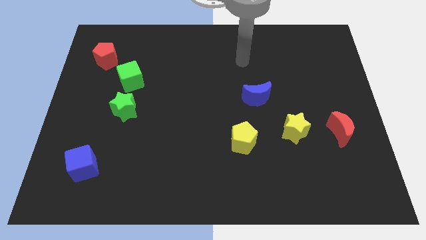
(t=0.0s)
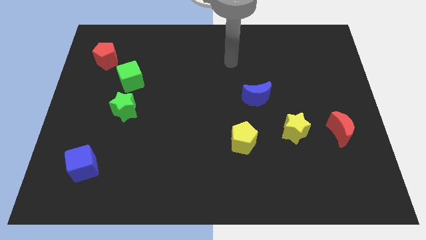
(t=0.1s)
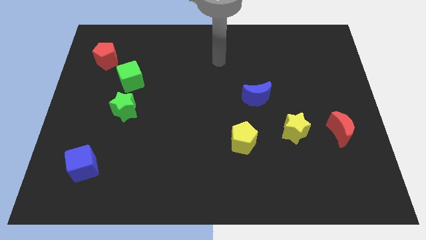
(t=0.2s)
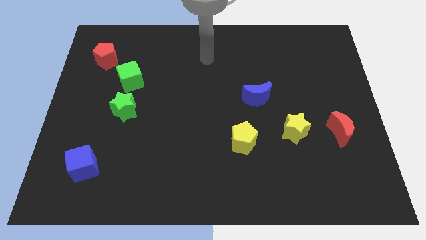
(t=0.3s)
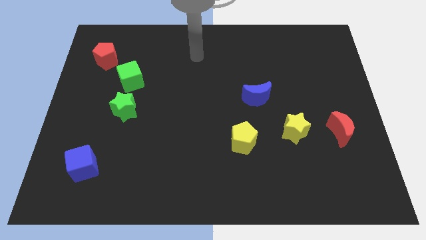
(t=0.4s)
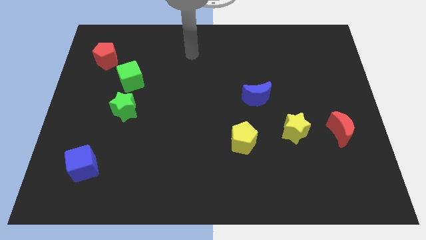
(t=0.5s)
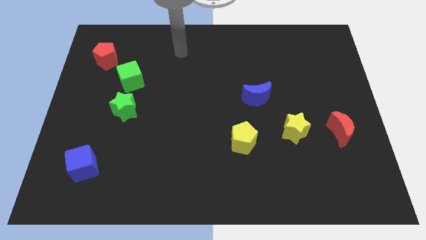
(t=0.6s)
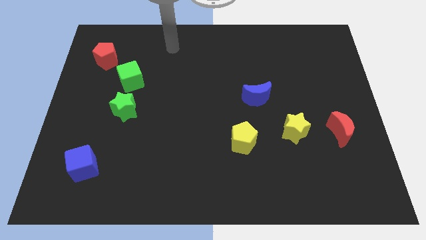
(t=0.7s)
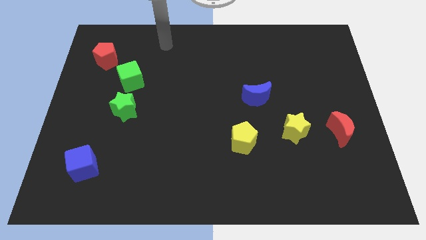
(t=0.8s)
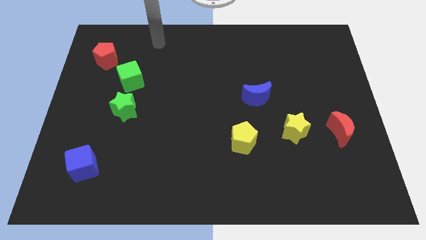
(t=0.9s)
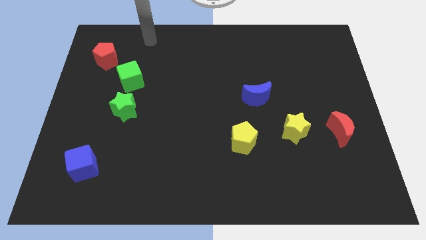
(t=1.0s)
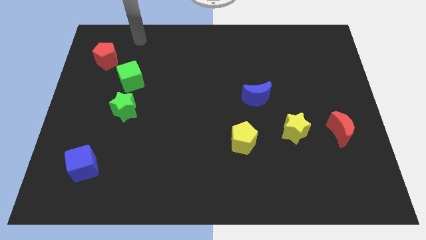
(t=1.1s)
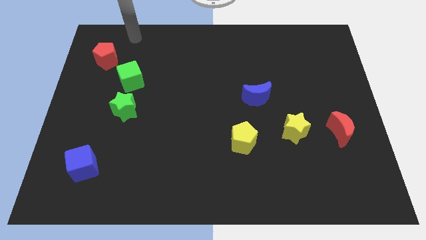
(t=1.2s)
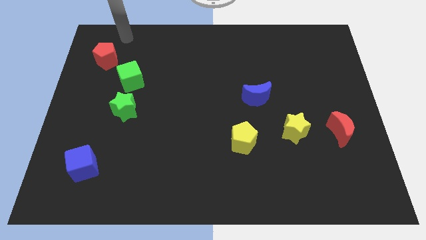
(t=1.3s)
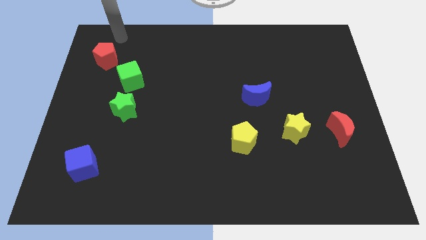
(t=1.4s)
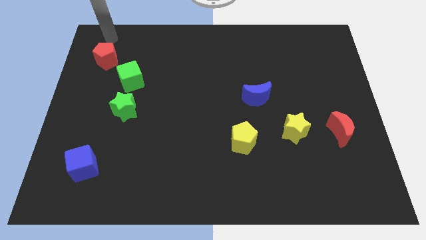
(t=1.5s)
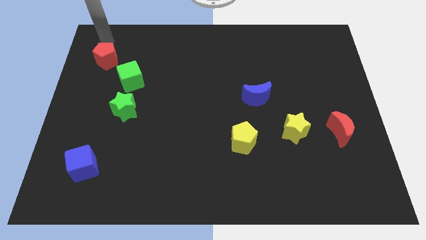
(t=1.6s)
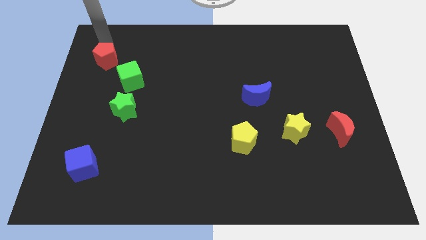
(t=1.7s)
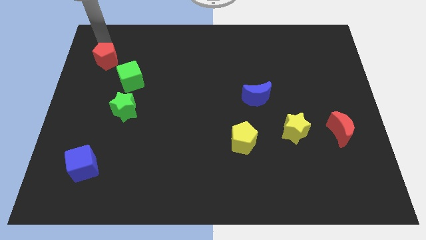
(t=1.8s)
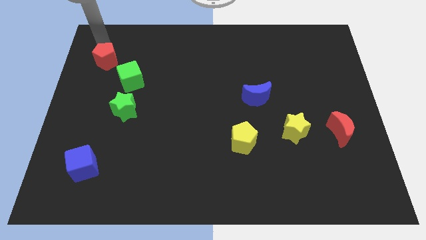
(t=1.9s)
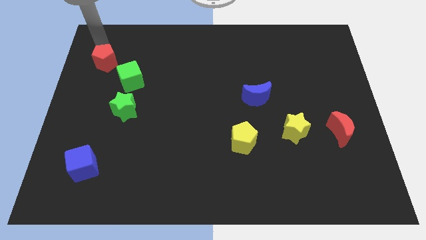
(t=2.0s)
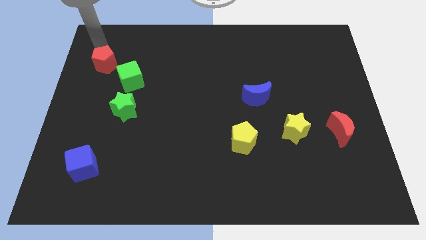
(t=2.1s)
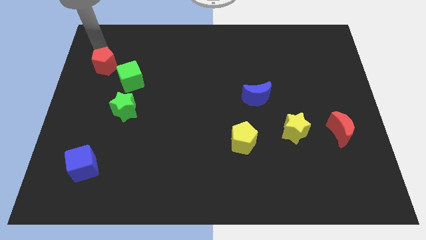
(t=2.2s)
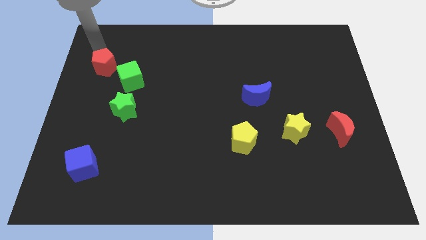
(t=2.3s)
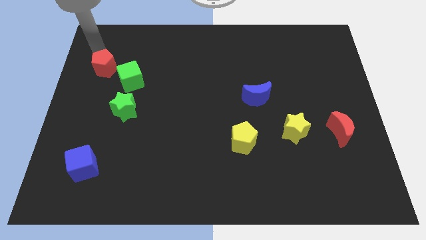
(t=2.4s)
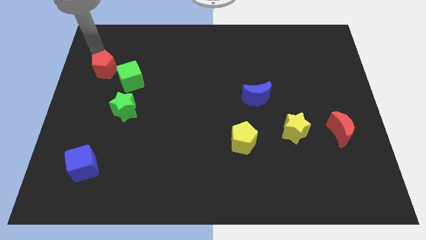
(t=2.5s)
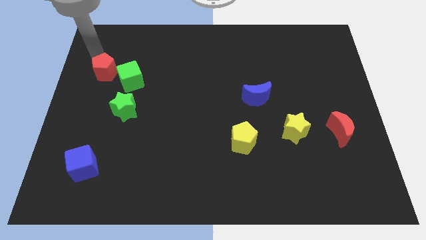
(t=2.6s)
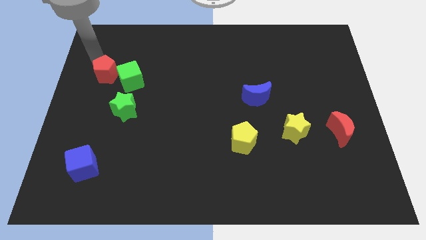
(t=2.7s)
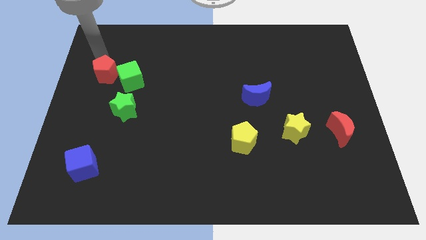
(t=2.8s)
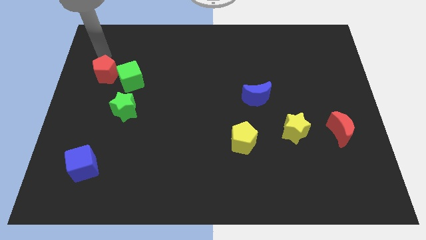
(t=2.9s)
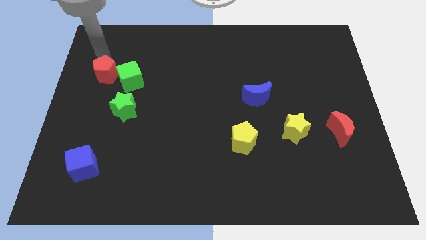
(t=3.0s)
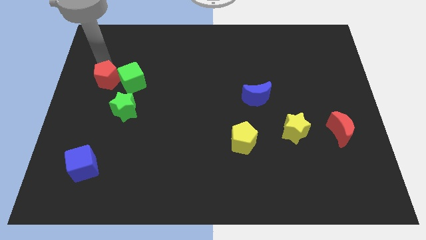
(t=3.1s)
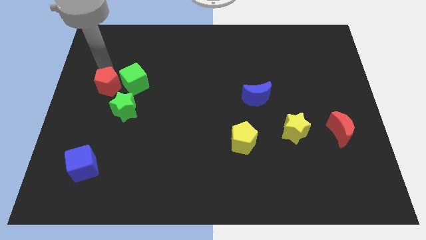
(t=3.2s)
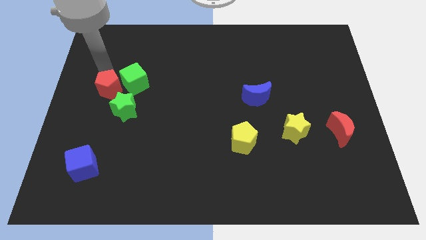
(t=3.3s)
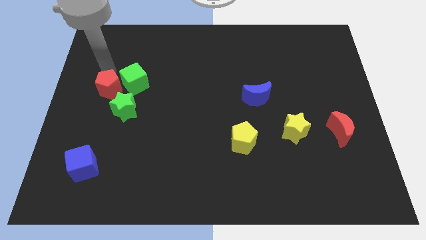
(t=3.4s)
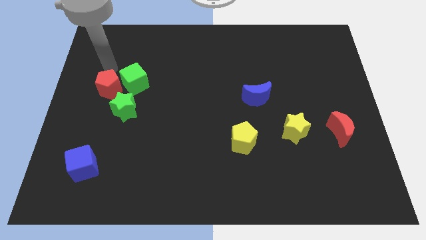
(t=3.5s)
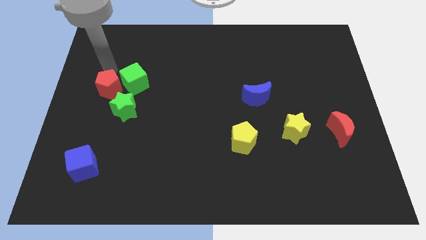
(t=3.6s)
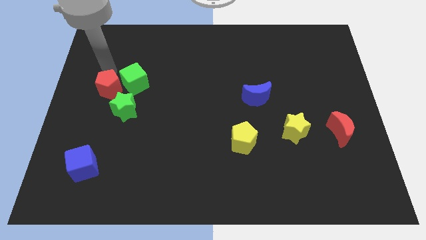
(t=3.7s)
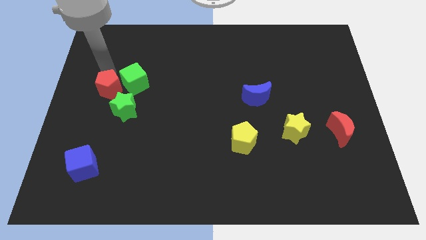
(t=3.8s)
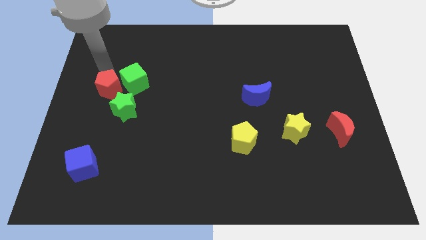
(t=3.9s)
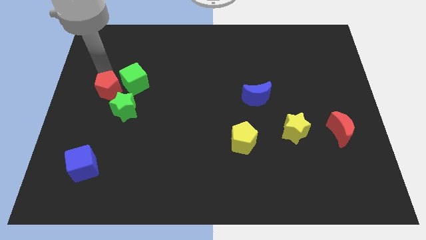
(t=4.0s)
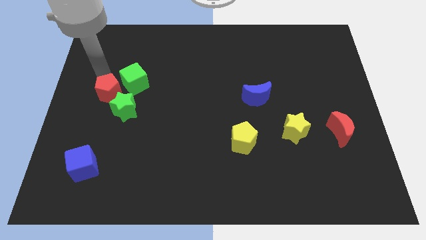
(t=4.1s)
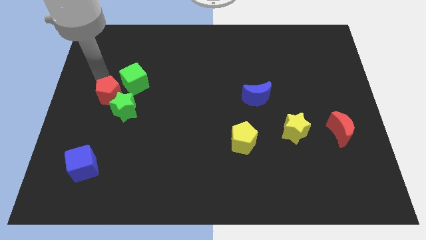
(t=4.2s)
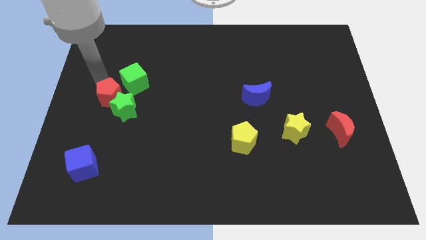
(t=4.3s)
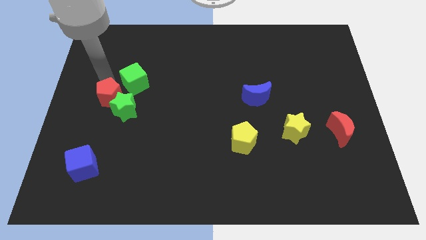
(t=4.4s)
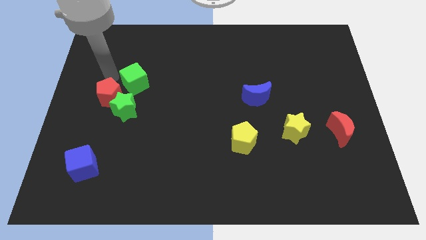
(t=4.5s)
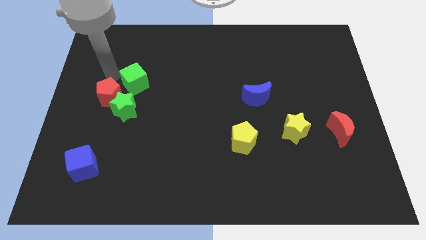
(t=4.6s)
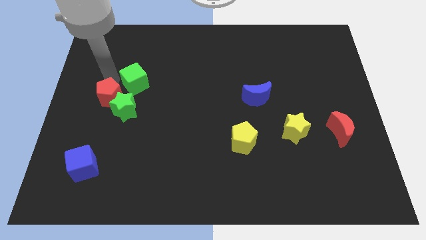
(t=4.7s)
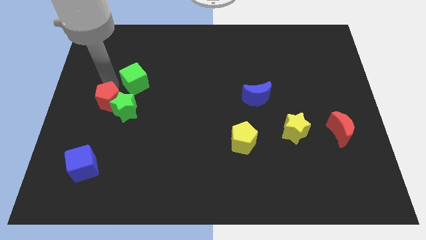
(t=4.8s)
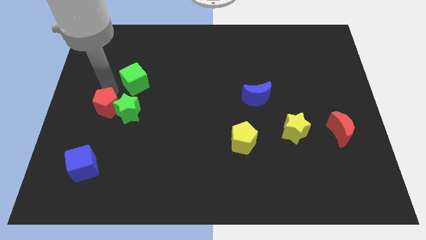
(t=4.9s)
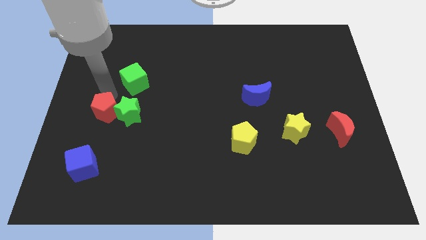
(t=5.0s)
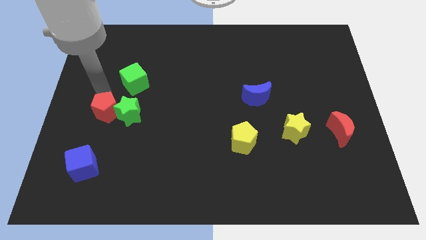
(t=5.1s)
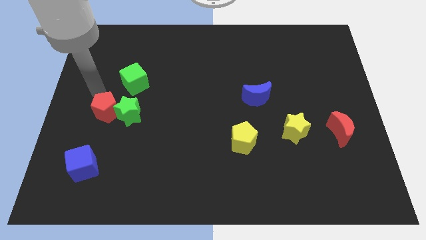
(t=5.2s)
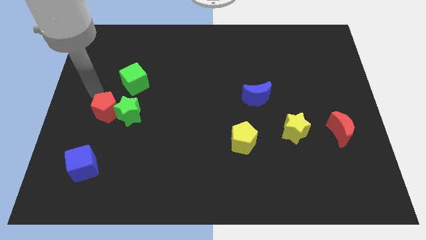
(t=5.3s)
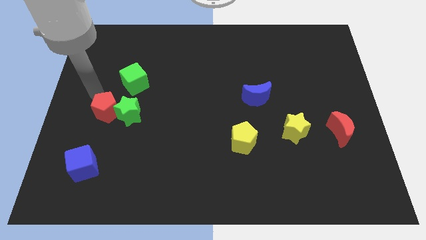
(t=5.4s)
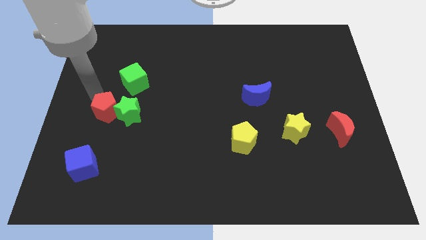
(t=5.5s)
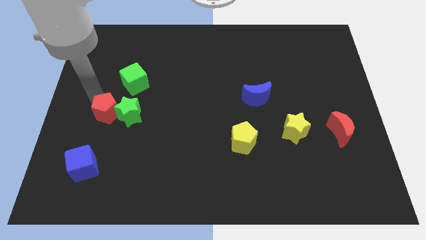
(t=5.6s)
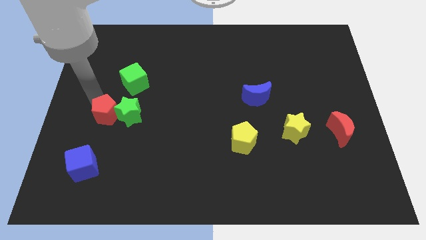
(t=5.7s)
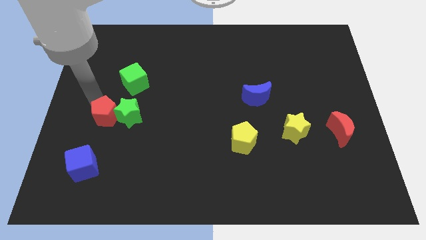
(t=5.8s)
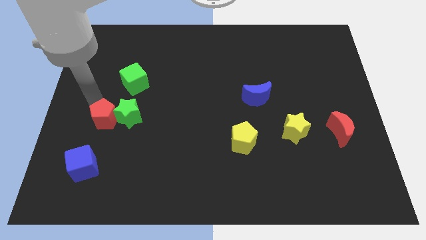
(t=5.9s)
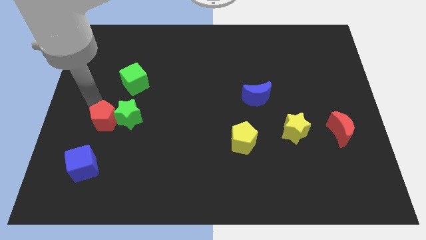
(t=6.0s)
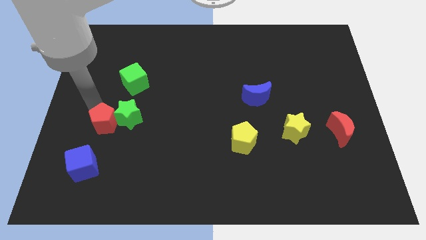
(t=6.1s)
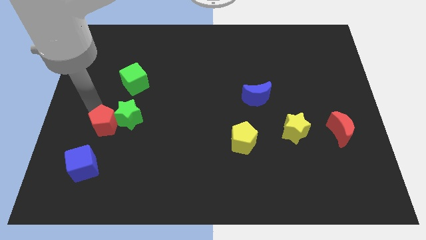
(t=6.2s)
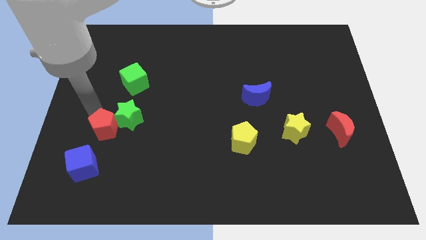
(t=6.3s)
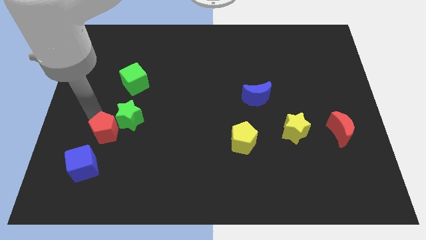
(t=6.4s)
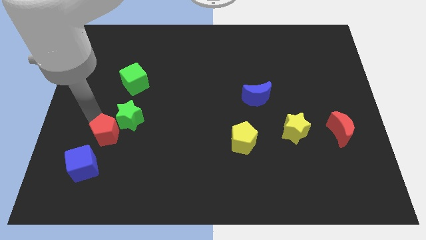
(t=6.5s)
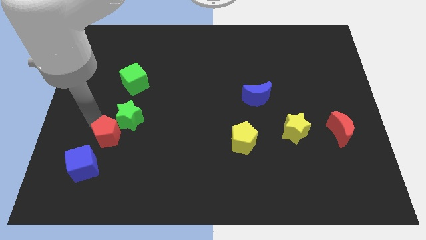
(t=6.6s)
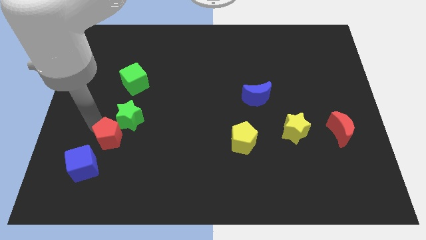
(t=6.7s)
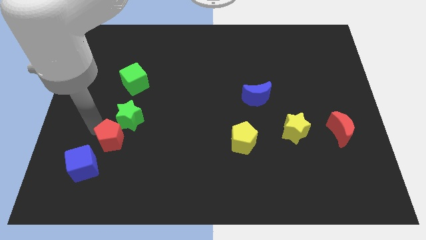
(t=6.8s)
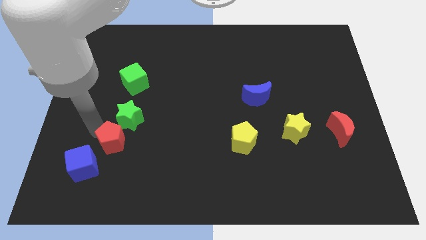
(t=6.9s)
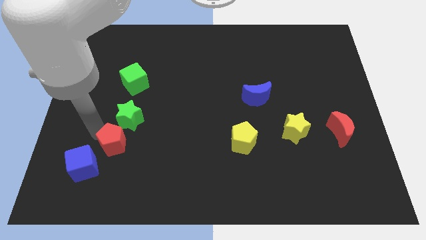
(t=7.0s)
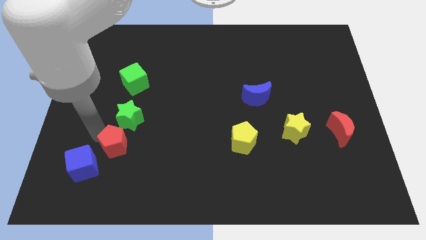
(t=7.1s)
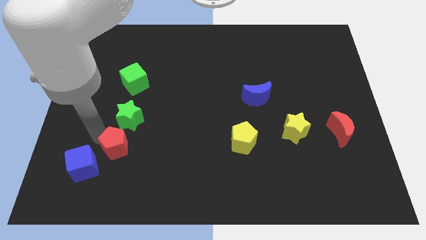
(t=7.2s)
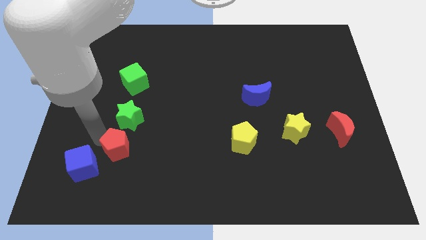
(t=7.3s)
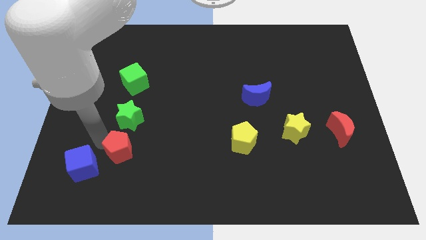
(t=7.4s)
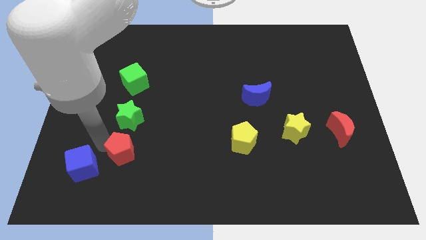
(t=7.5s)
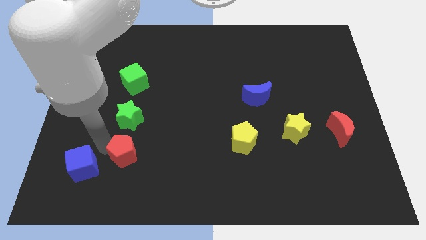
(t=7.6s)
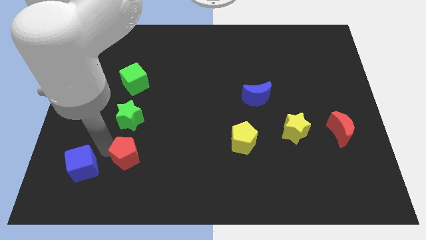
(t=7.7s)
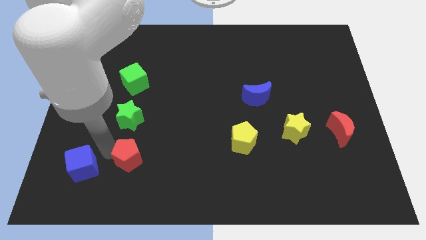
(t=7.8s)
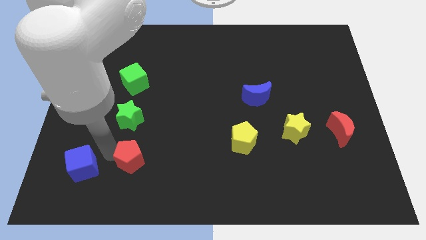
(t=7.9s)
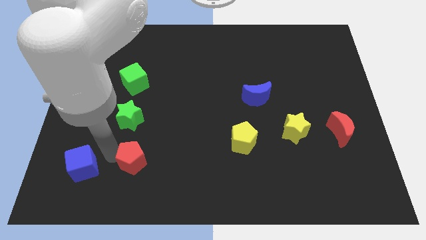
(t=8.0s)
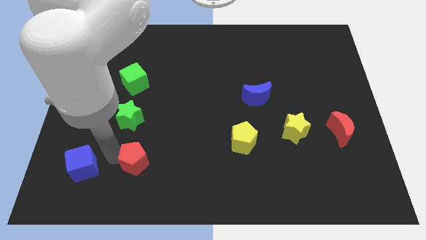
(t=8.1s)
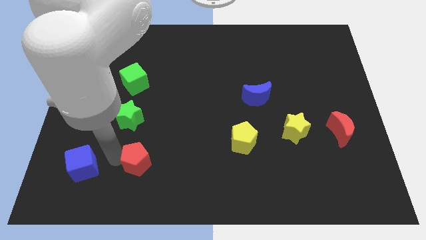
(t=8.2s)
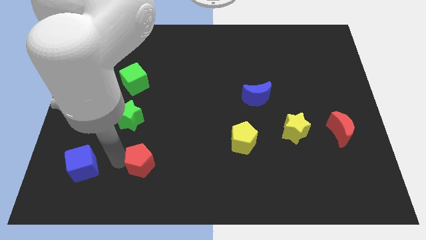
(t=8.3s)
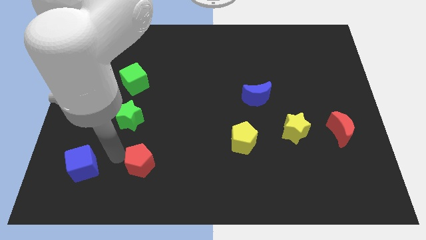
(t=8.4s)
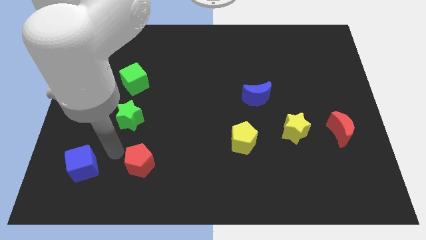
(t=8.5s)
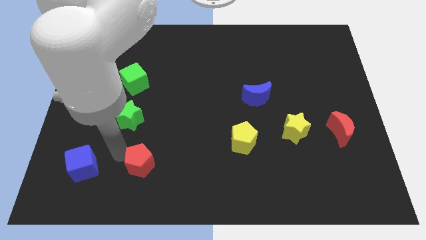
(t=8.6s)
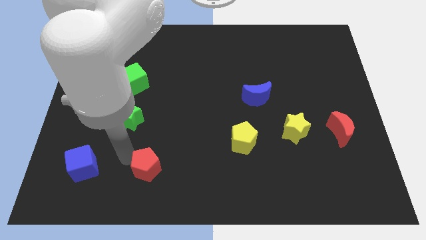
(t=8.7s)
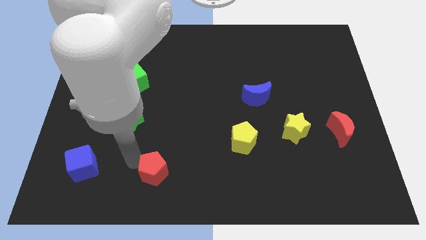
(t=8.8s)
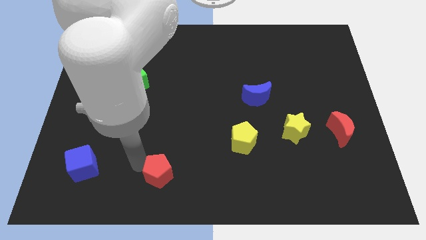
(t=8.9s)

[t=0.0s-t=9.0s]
slide the red pentagon to the bottom side

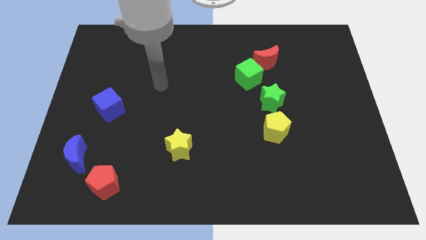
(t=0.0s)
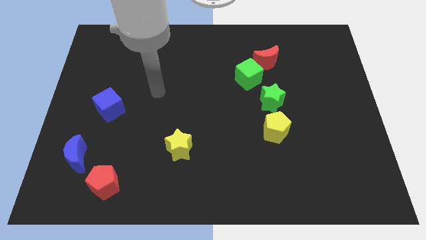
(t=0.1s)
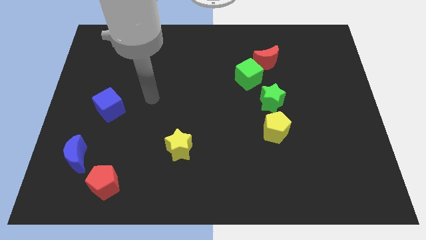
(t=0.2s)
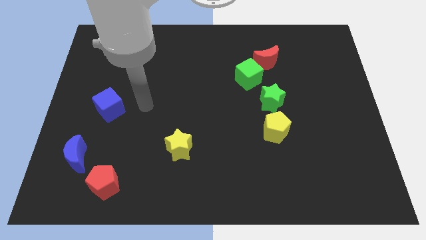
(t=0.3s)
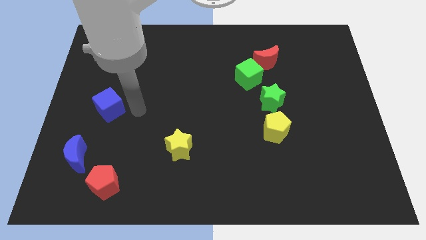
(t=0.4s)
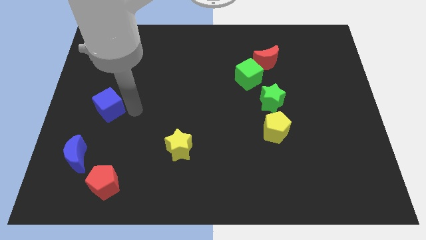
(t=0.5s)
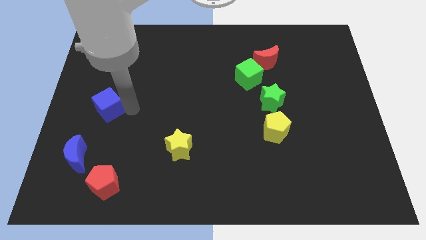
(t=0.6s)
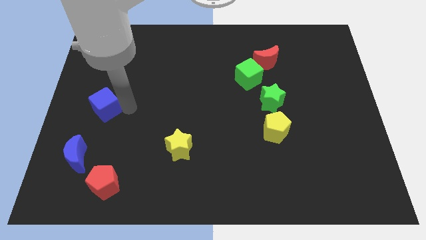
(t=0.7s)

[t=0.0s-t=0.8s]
push the blue cube to the center left
